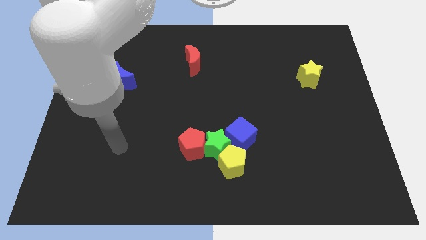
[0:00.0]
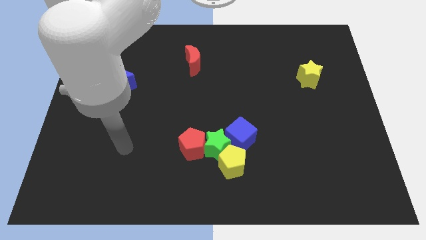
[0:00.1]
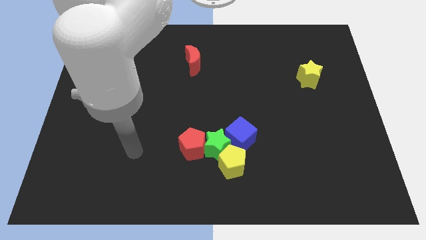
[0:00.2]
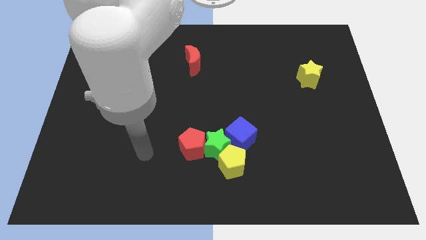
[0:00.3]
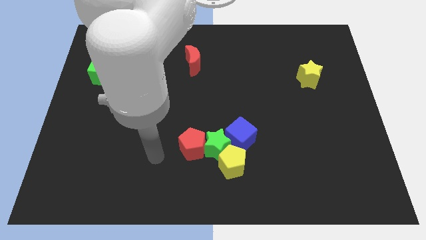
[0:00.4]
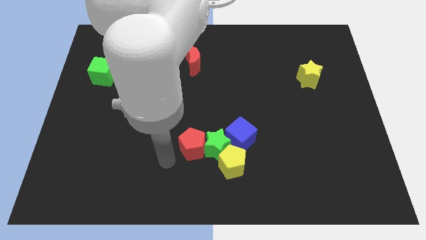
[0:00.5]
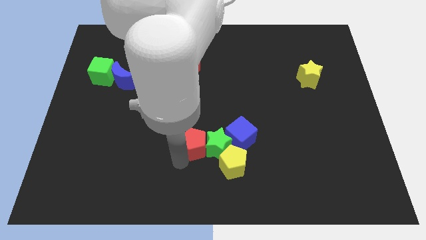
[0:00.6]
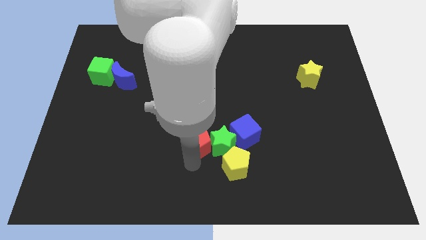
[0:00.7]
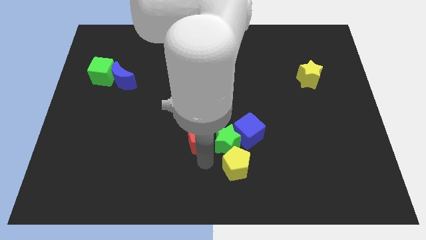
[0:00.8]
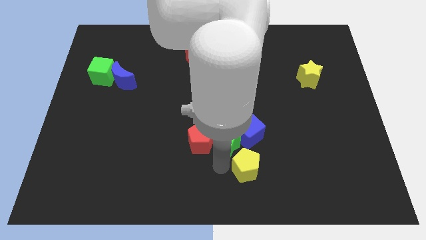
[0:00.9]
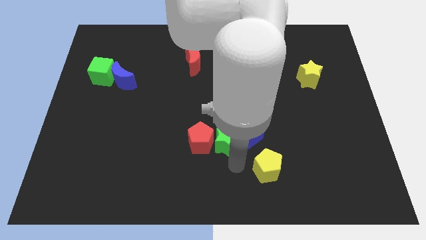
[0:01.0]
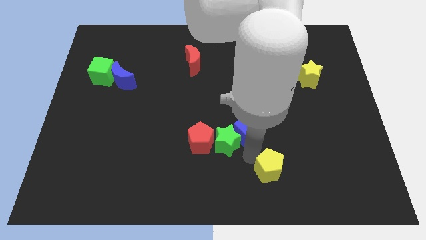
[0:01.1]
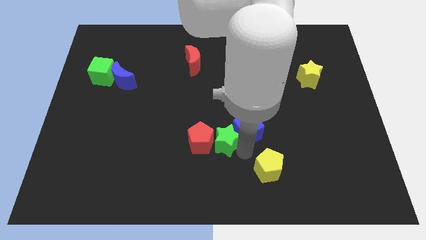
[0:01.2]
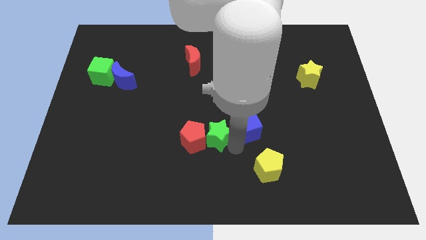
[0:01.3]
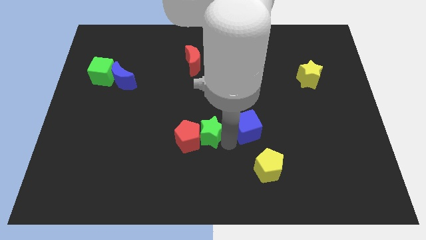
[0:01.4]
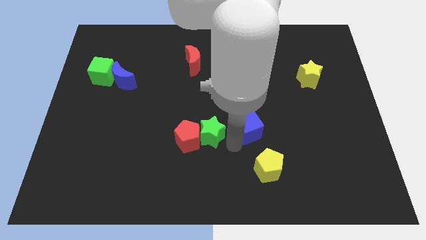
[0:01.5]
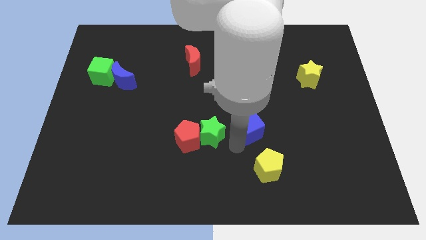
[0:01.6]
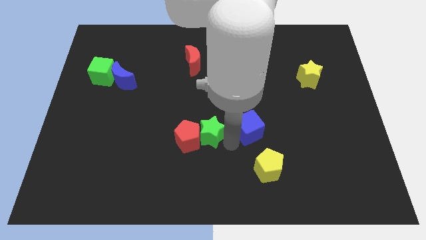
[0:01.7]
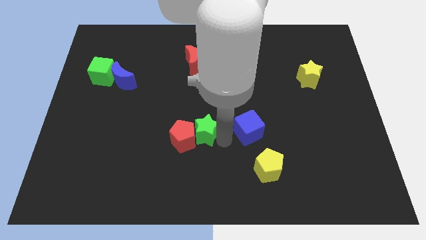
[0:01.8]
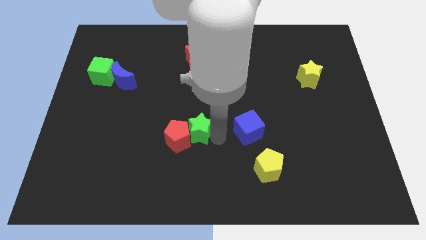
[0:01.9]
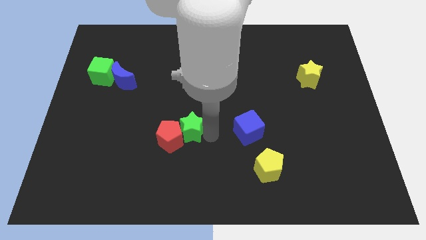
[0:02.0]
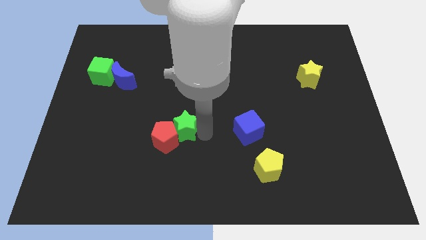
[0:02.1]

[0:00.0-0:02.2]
separate the green star from the red pentagon, yellow pentagon, and blue cube

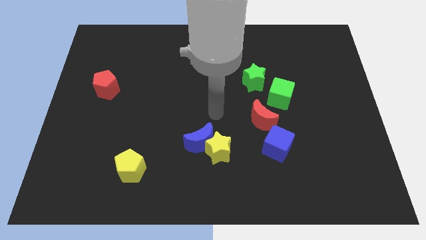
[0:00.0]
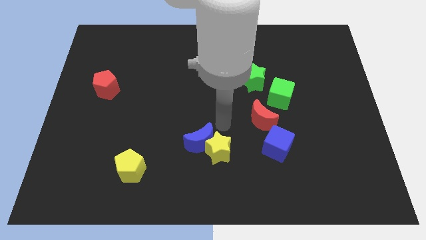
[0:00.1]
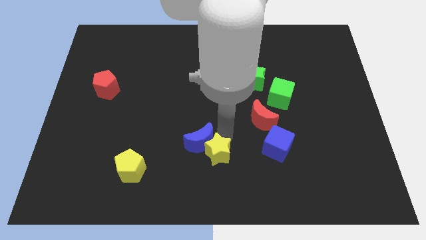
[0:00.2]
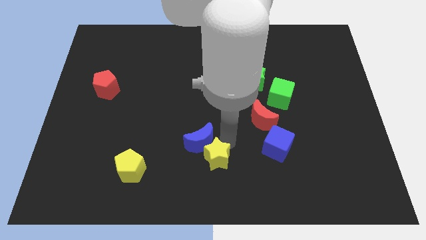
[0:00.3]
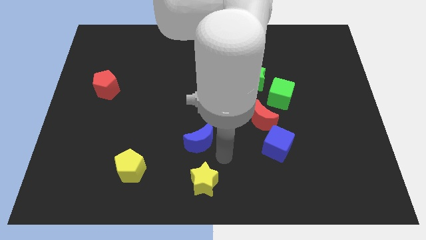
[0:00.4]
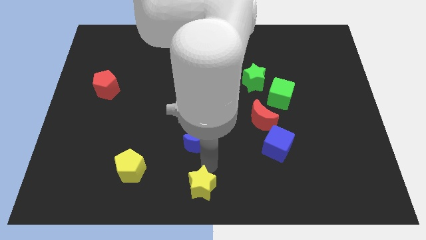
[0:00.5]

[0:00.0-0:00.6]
move the blue moon away from the yellow star

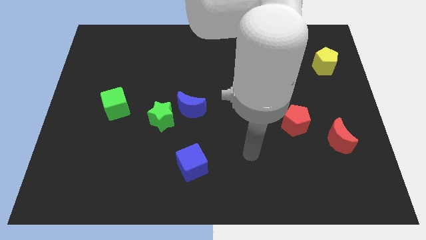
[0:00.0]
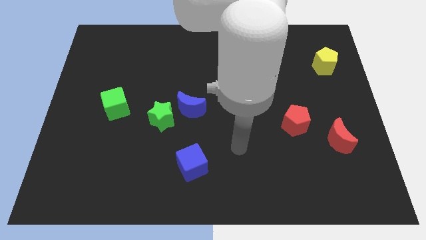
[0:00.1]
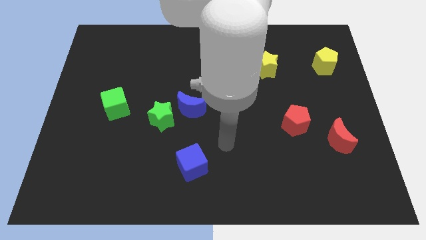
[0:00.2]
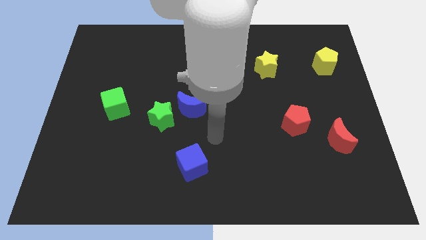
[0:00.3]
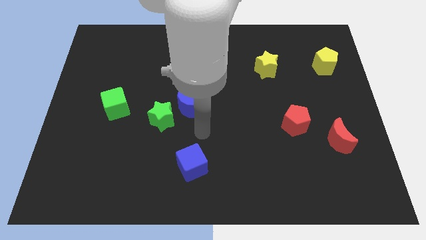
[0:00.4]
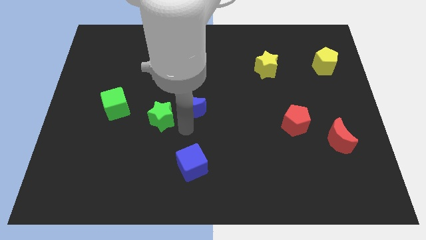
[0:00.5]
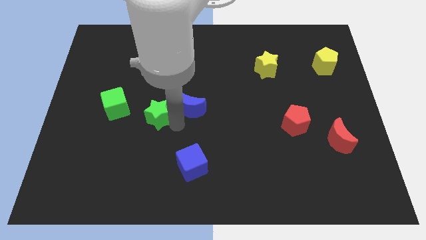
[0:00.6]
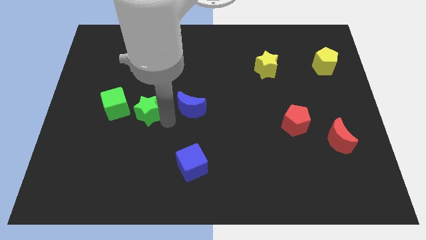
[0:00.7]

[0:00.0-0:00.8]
separate the blue moon from the green star

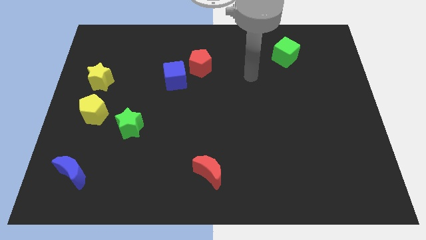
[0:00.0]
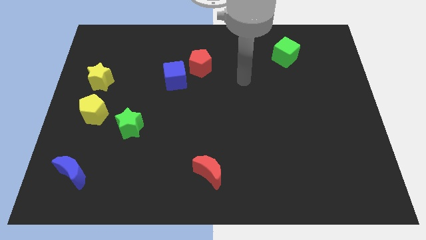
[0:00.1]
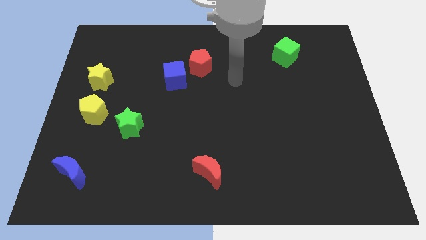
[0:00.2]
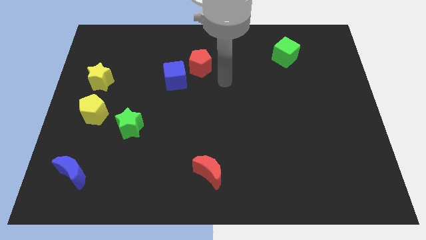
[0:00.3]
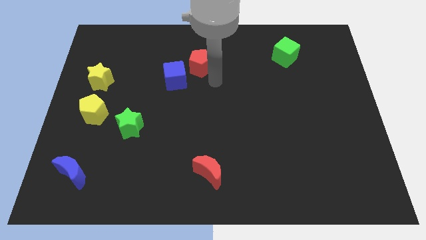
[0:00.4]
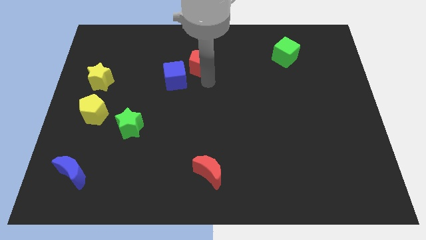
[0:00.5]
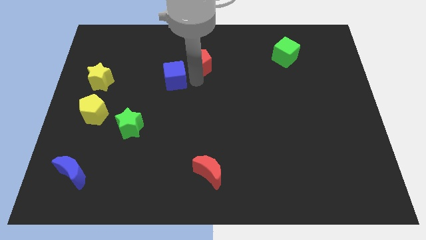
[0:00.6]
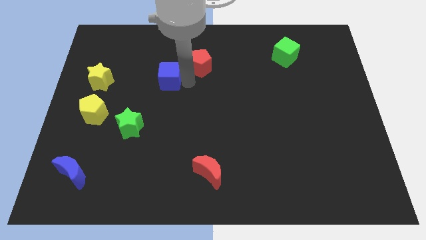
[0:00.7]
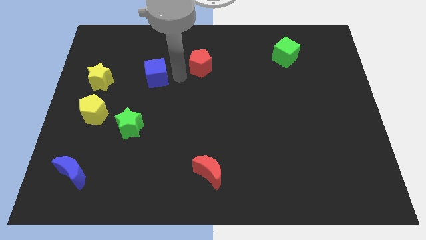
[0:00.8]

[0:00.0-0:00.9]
move the red pentagon away from the blue cube

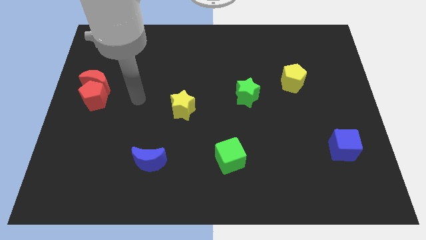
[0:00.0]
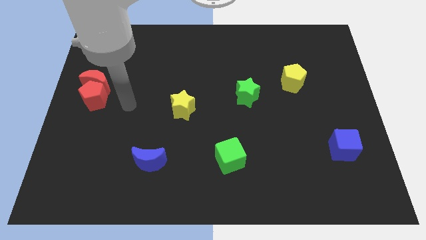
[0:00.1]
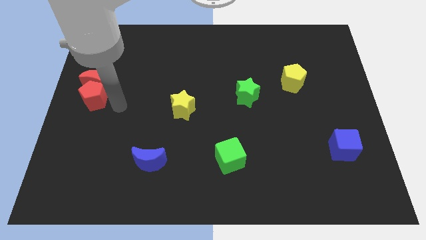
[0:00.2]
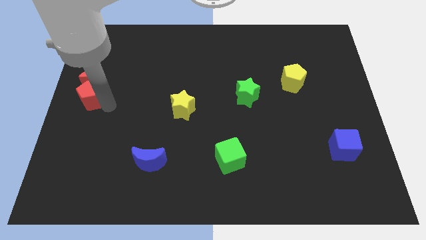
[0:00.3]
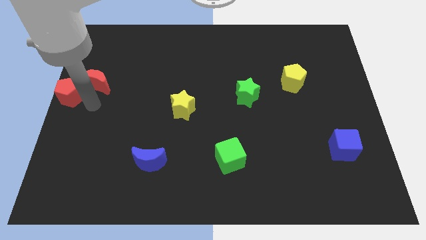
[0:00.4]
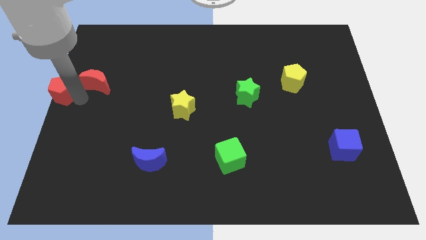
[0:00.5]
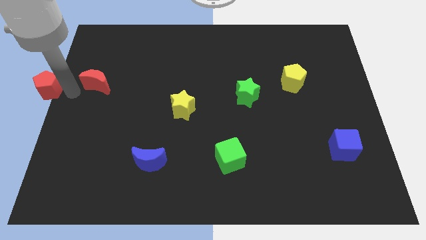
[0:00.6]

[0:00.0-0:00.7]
pull the red moon apart from the red pentagon

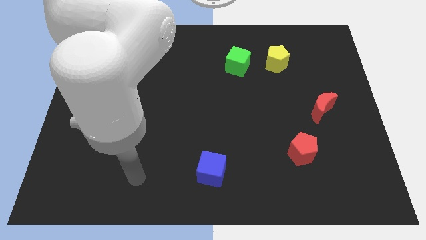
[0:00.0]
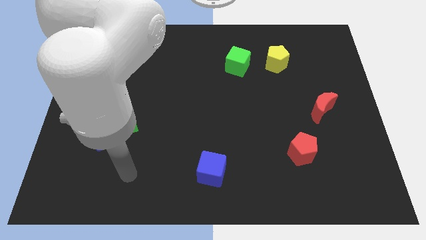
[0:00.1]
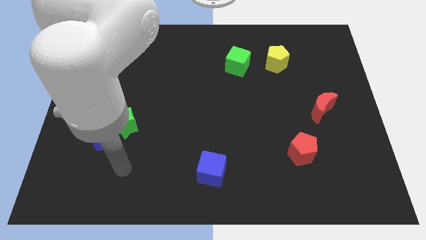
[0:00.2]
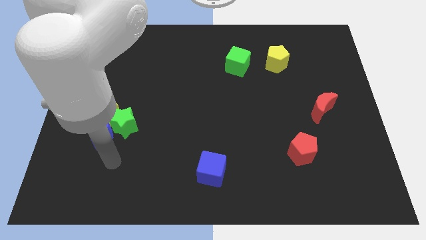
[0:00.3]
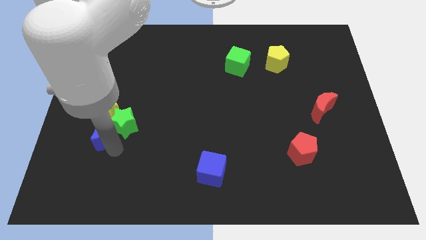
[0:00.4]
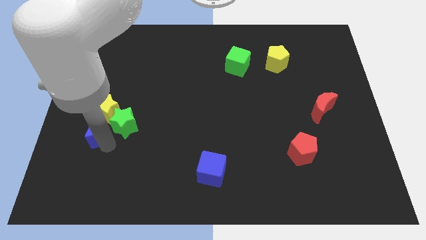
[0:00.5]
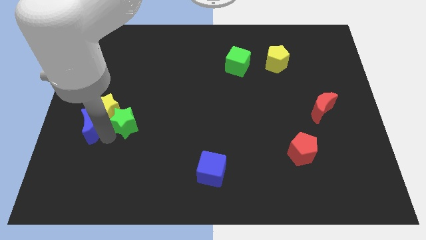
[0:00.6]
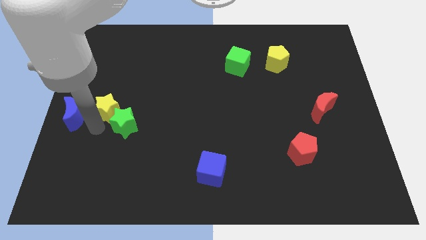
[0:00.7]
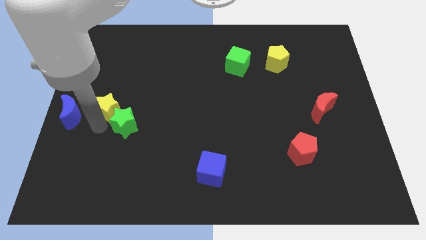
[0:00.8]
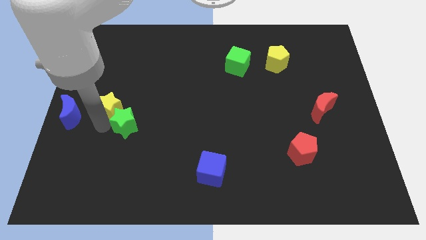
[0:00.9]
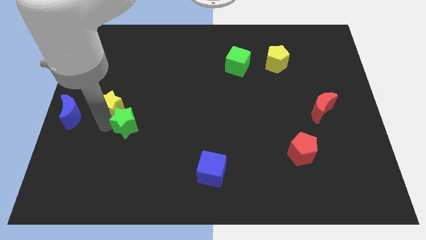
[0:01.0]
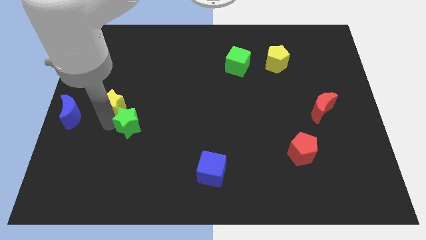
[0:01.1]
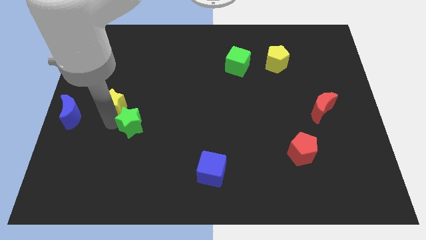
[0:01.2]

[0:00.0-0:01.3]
pull the green star apart from the blue moon and yellow star

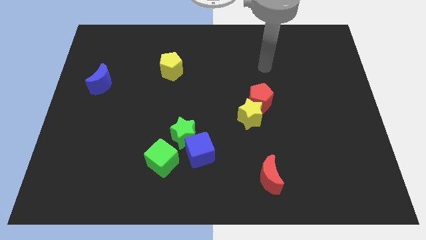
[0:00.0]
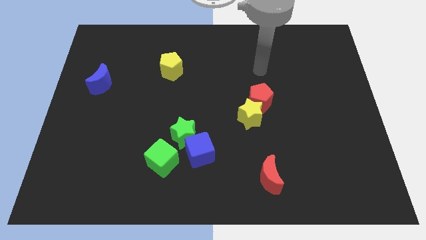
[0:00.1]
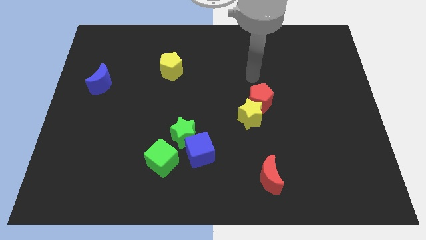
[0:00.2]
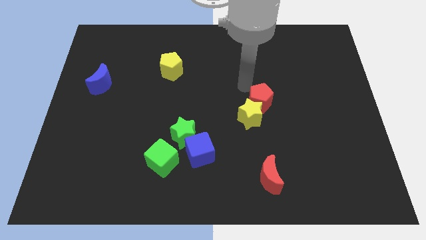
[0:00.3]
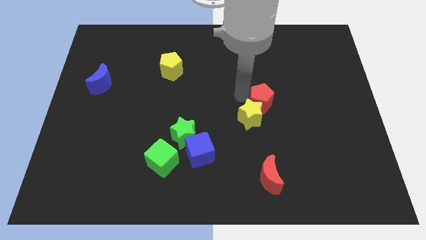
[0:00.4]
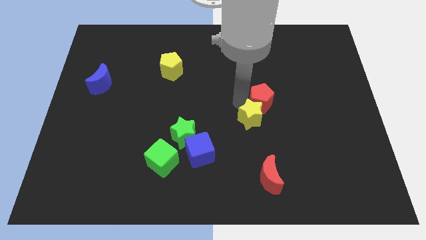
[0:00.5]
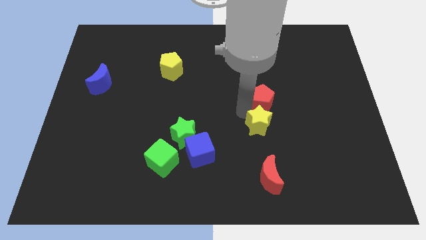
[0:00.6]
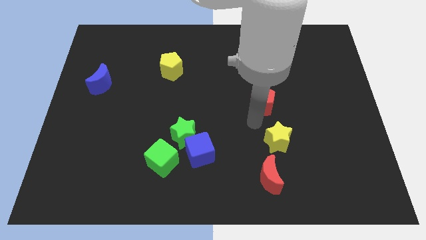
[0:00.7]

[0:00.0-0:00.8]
separate the red pentagon from the yellow star

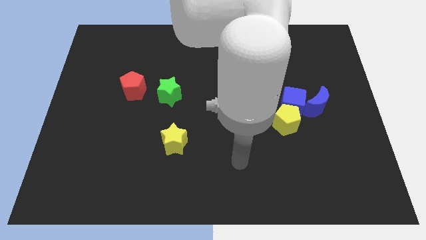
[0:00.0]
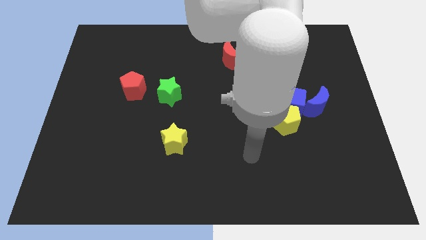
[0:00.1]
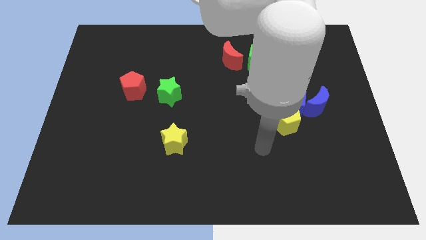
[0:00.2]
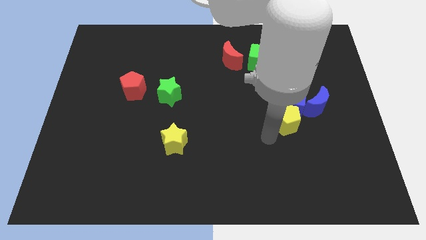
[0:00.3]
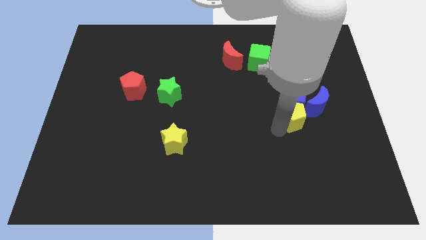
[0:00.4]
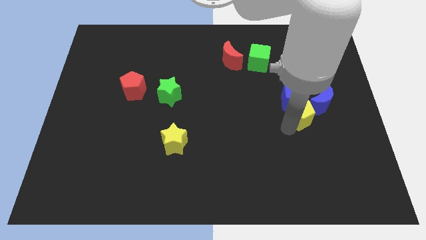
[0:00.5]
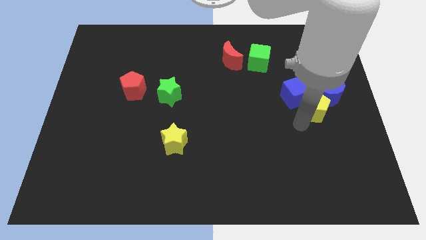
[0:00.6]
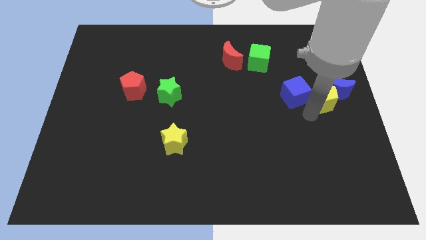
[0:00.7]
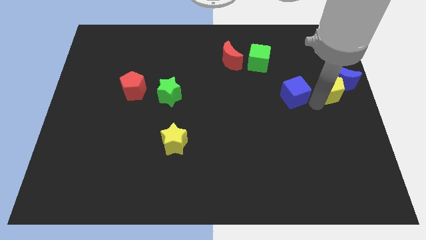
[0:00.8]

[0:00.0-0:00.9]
separate the blue cube from the yellow pentagon and blue moon

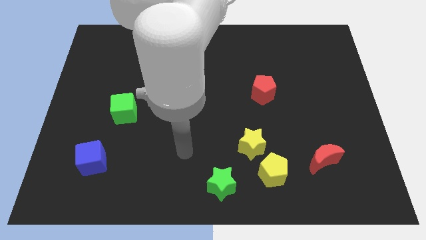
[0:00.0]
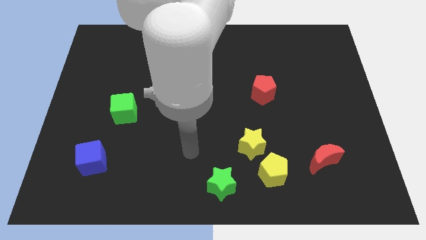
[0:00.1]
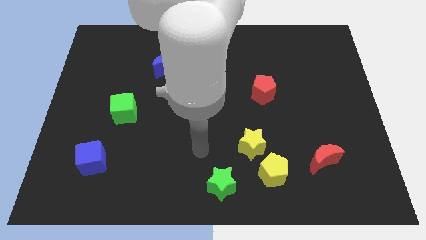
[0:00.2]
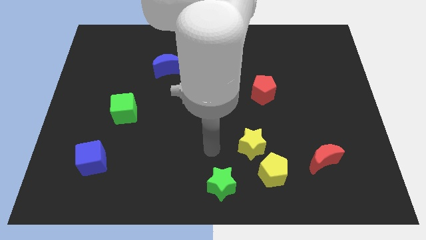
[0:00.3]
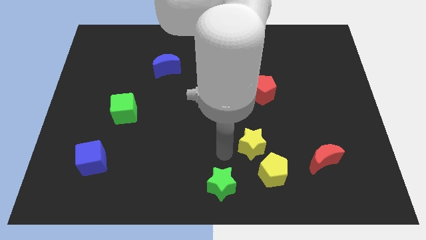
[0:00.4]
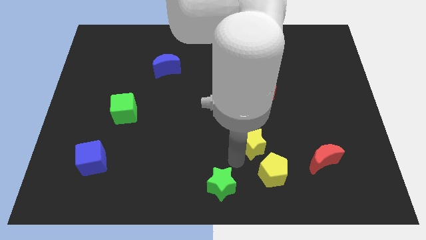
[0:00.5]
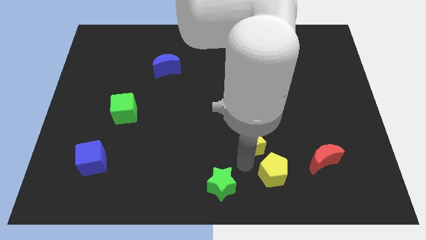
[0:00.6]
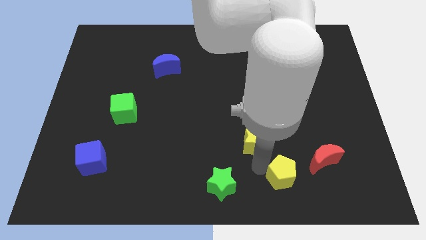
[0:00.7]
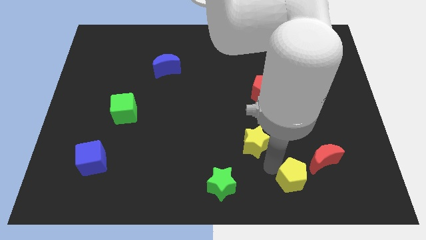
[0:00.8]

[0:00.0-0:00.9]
move the yellow star away from the yellow pentagon
